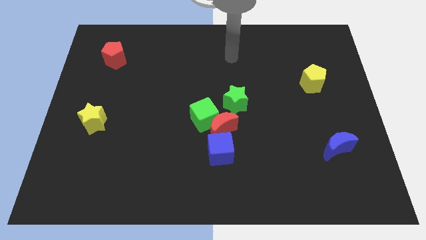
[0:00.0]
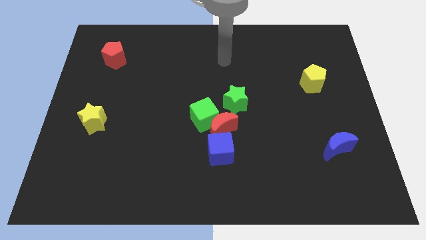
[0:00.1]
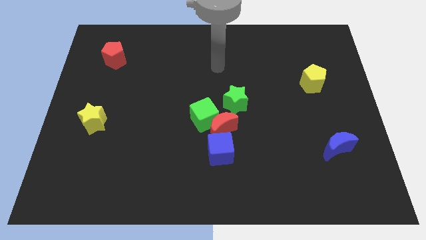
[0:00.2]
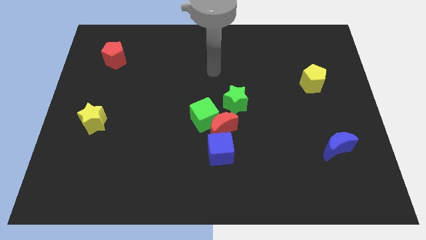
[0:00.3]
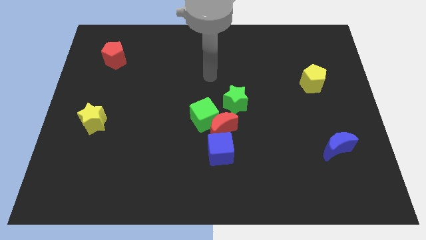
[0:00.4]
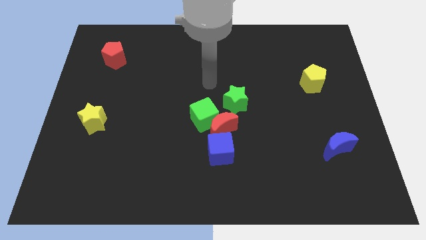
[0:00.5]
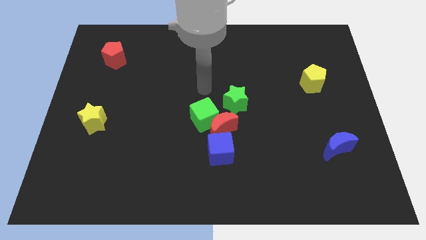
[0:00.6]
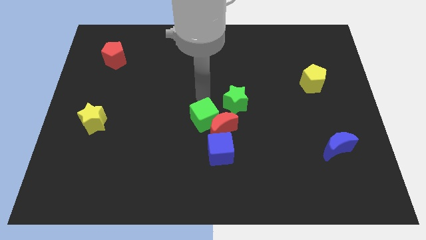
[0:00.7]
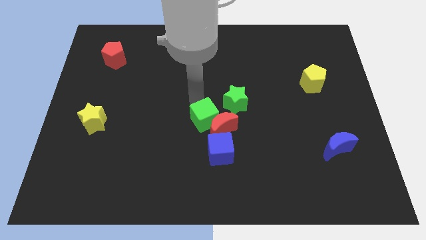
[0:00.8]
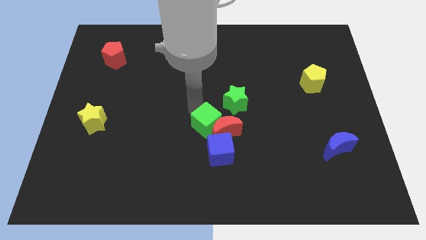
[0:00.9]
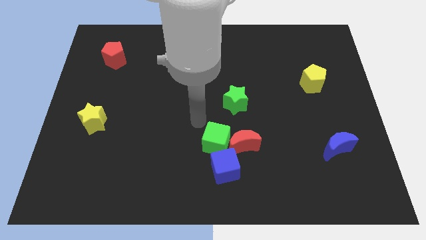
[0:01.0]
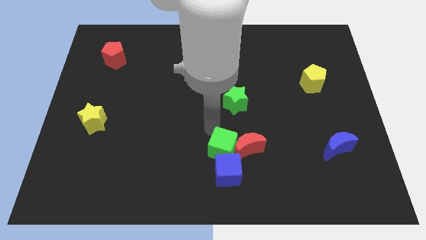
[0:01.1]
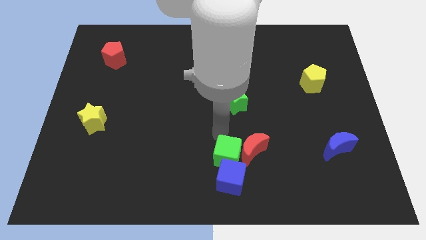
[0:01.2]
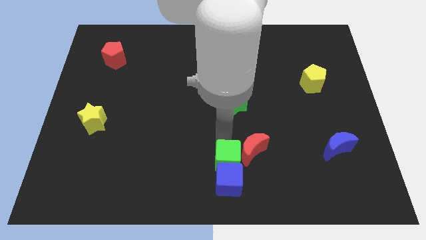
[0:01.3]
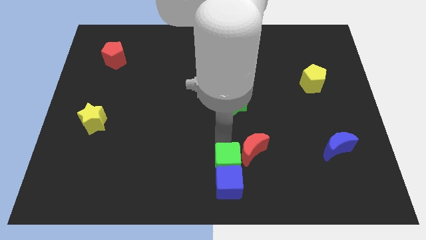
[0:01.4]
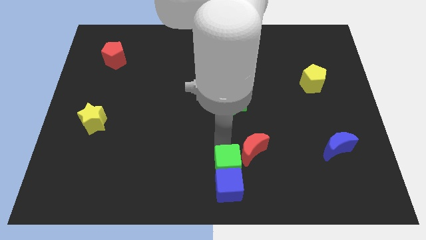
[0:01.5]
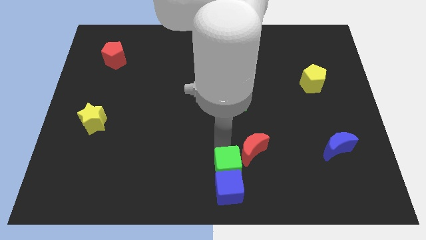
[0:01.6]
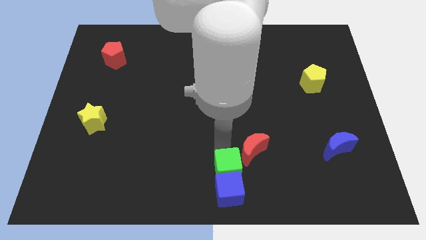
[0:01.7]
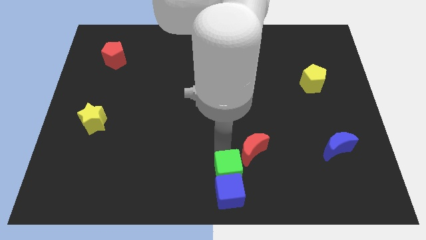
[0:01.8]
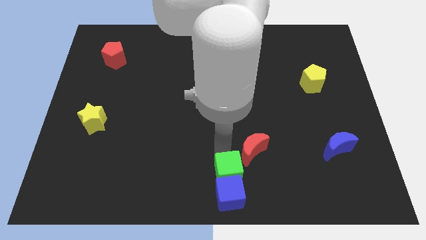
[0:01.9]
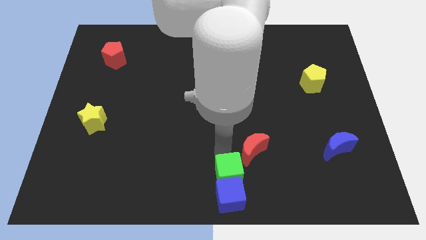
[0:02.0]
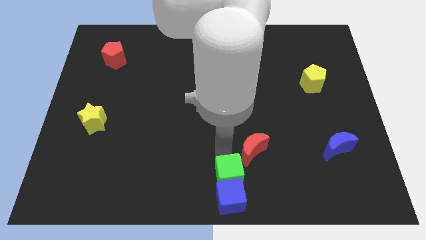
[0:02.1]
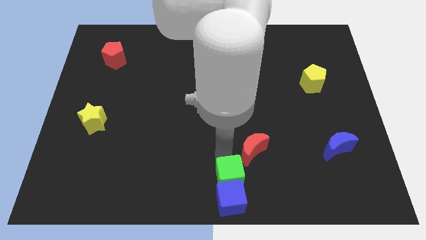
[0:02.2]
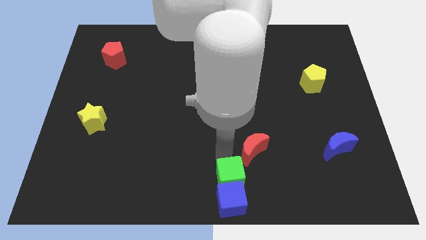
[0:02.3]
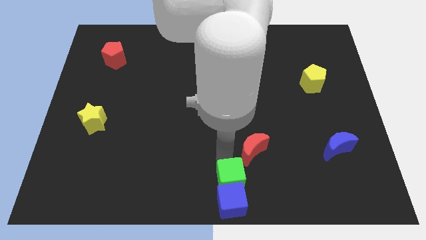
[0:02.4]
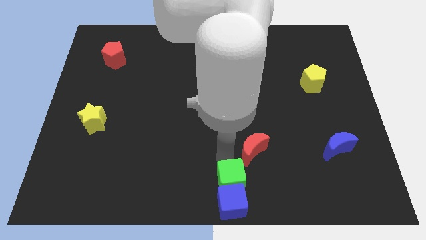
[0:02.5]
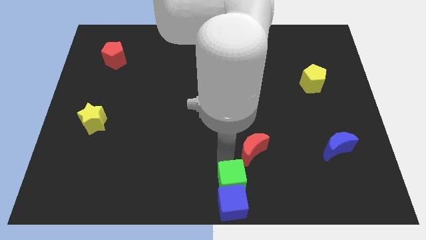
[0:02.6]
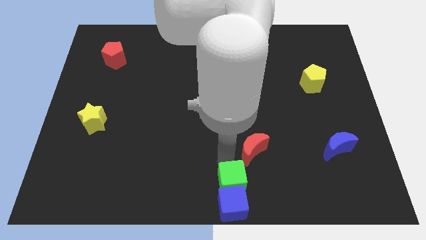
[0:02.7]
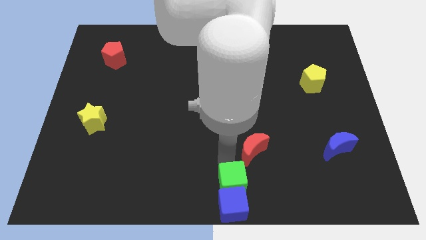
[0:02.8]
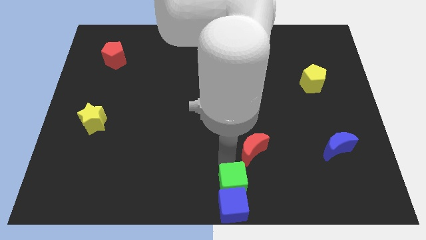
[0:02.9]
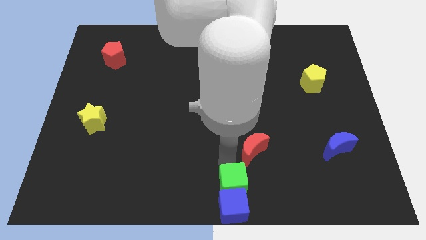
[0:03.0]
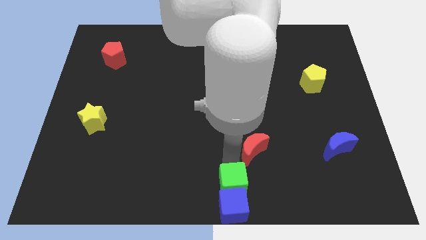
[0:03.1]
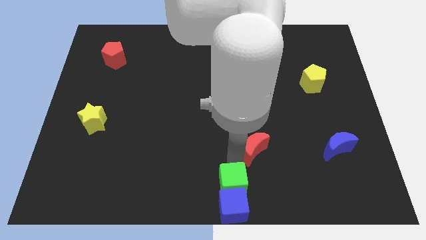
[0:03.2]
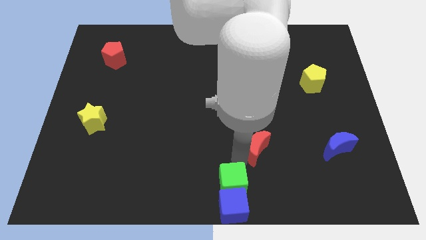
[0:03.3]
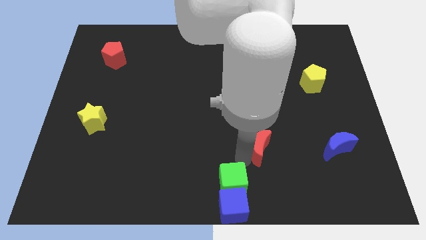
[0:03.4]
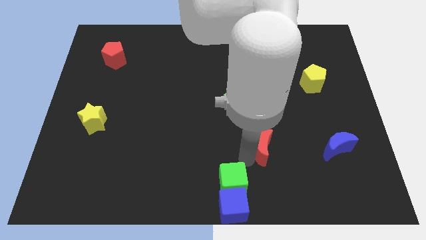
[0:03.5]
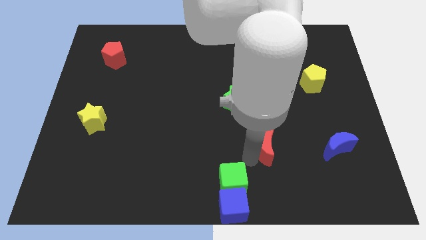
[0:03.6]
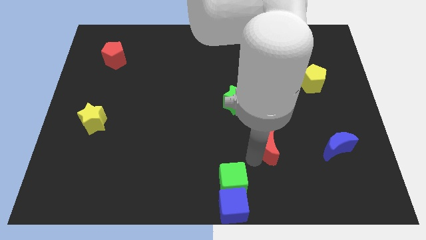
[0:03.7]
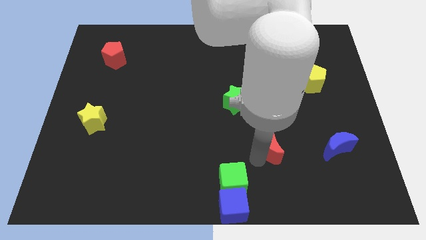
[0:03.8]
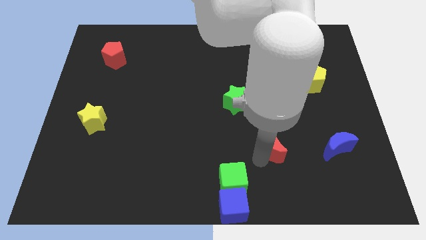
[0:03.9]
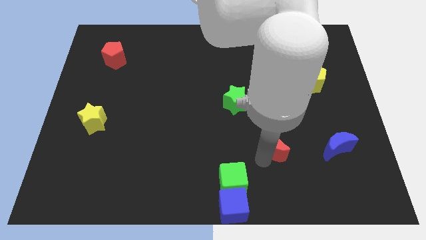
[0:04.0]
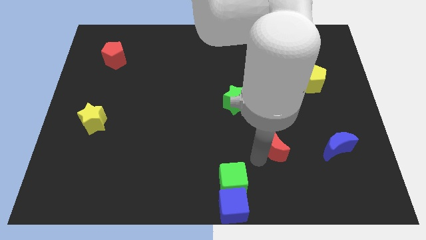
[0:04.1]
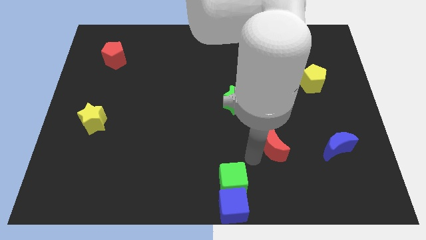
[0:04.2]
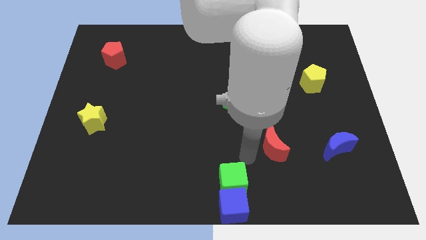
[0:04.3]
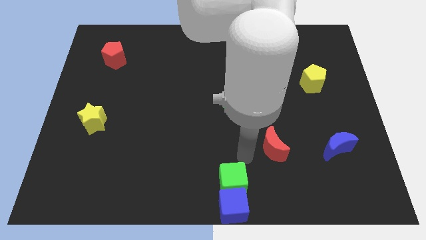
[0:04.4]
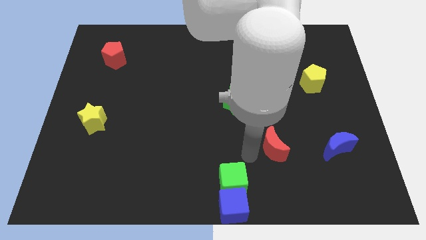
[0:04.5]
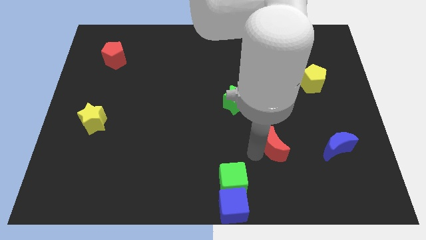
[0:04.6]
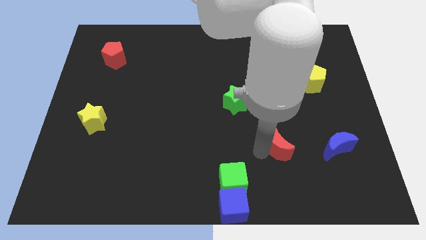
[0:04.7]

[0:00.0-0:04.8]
separate the red moon from the green cube, blue cube, and green star

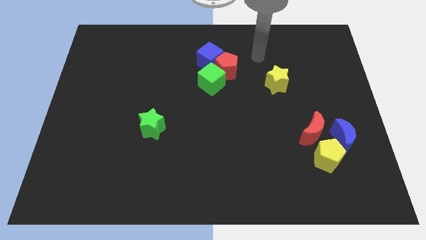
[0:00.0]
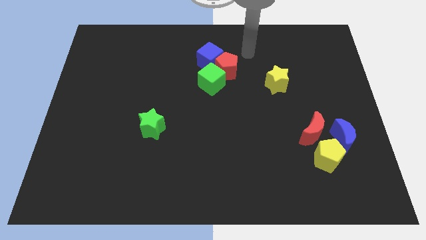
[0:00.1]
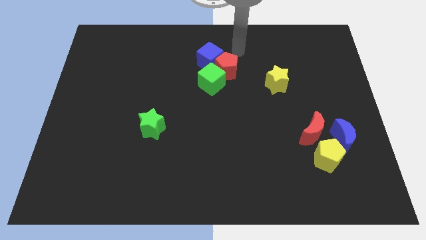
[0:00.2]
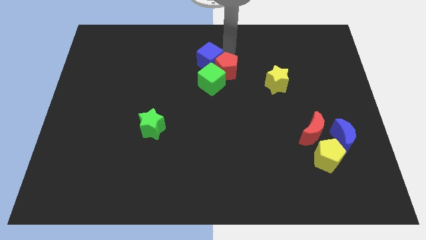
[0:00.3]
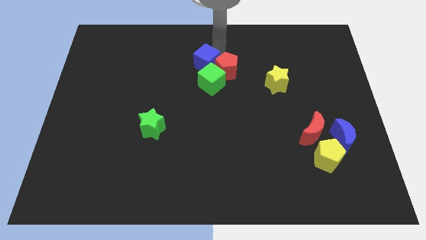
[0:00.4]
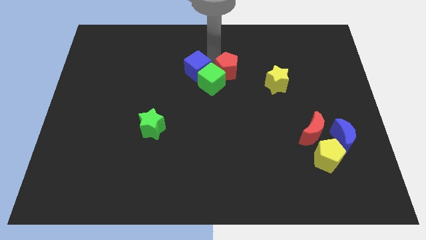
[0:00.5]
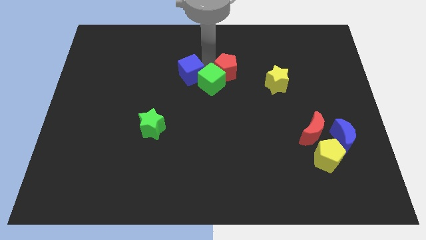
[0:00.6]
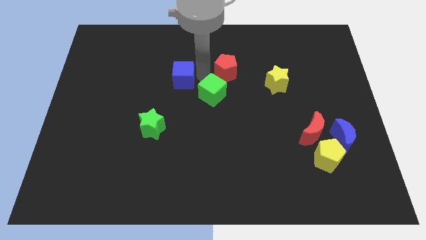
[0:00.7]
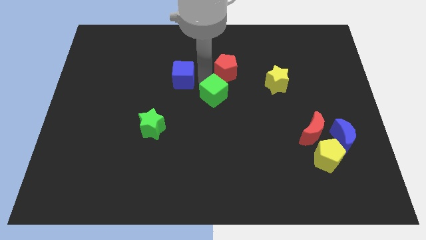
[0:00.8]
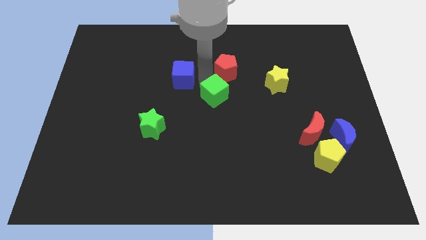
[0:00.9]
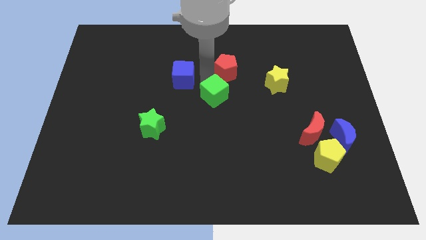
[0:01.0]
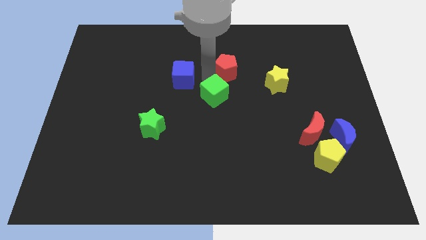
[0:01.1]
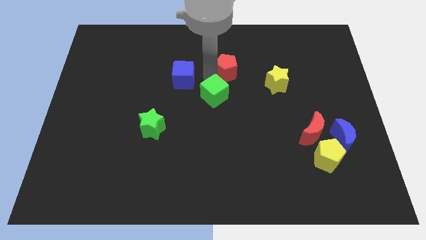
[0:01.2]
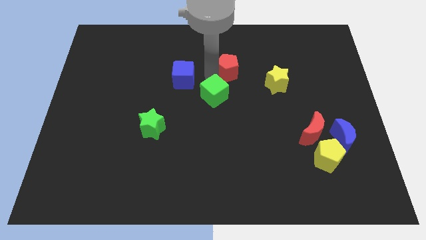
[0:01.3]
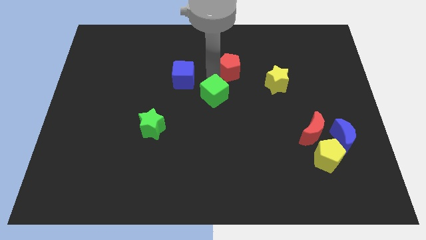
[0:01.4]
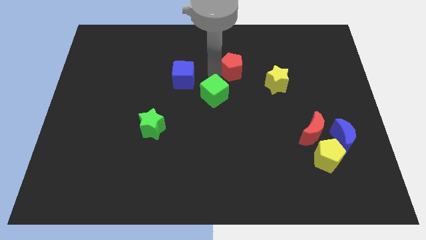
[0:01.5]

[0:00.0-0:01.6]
pull the red pentagon apart from the blue cube and green cube

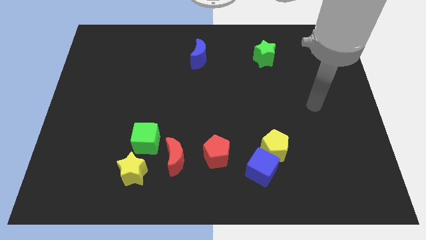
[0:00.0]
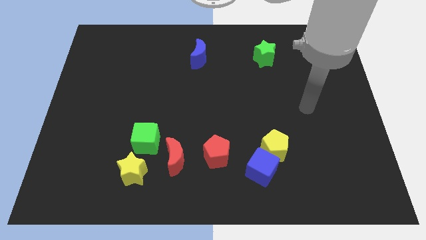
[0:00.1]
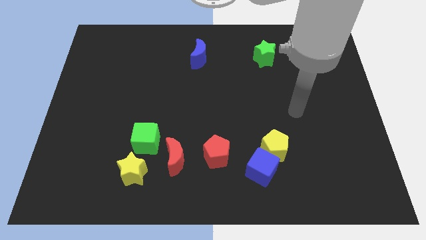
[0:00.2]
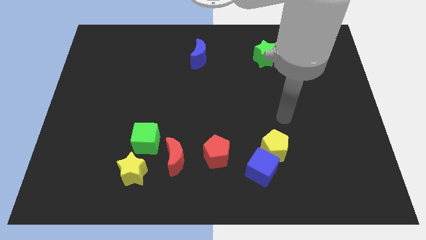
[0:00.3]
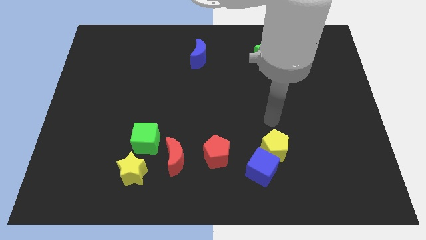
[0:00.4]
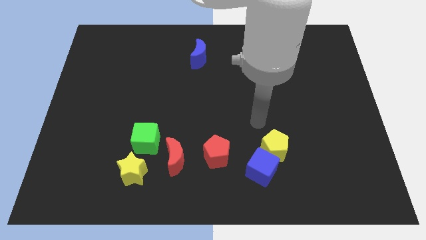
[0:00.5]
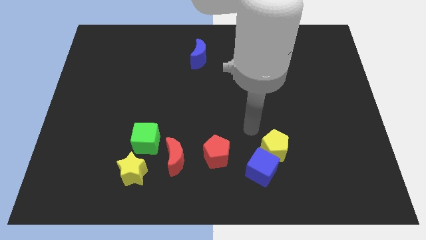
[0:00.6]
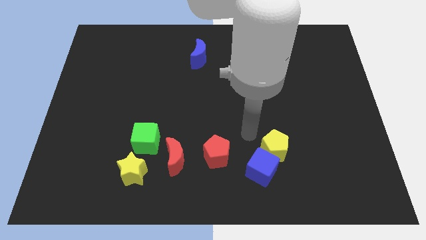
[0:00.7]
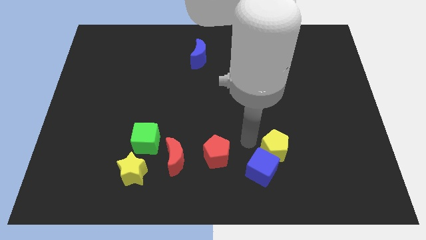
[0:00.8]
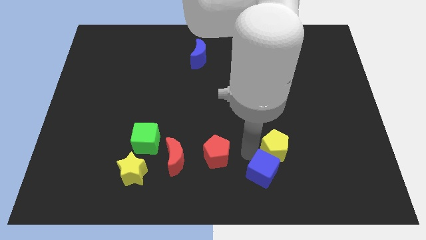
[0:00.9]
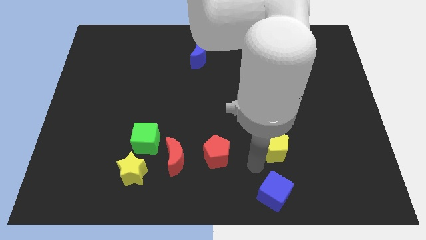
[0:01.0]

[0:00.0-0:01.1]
move the yellow pentagon away from the blue cube

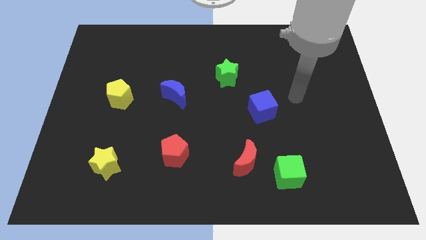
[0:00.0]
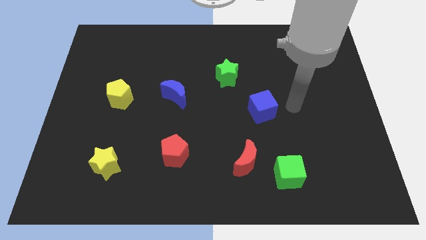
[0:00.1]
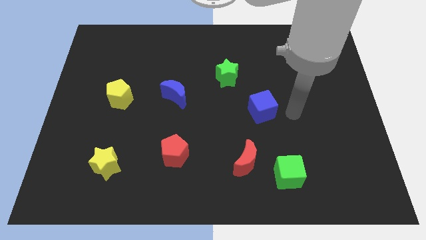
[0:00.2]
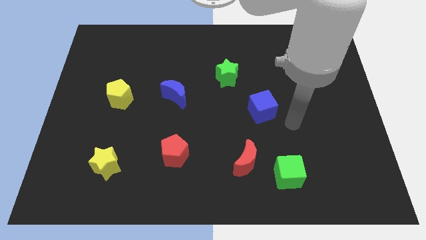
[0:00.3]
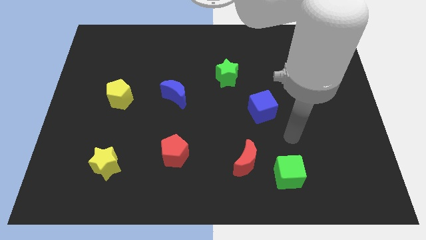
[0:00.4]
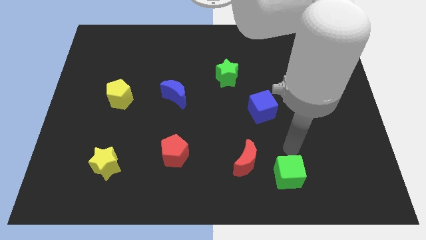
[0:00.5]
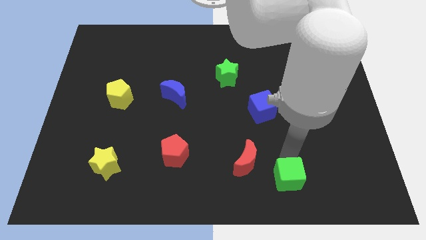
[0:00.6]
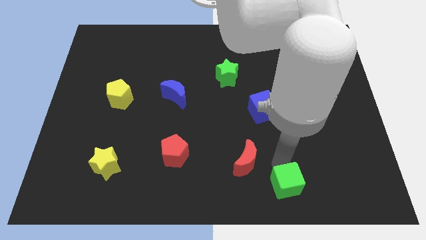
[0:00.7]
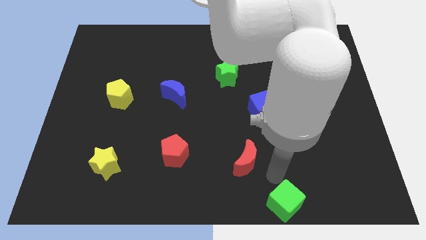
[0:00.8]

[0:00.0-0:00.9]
move the red moon away from the green cube

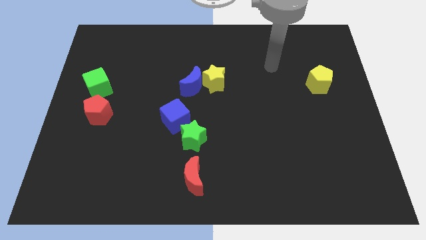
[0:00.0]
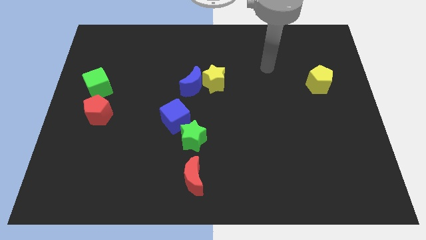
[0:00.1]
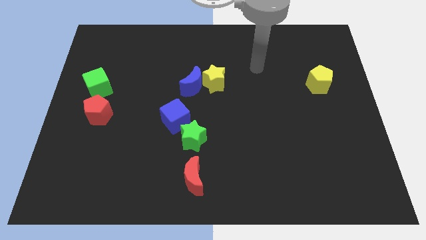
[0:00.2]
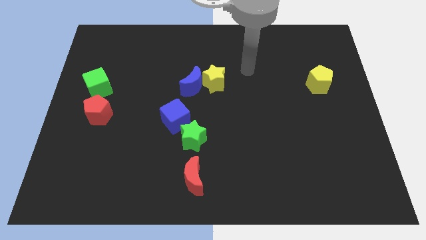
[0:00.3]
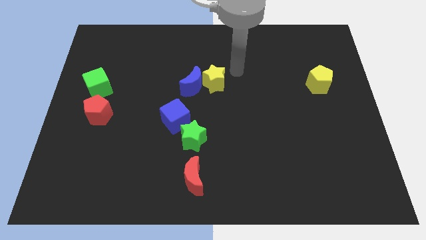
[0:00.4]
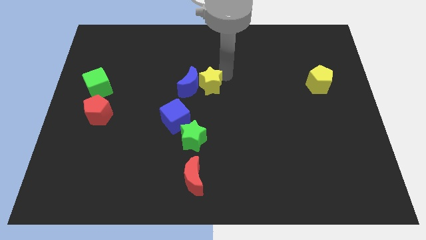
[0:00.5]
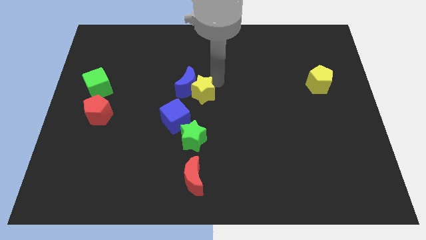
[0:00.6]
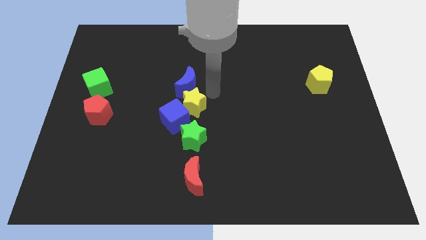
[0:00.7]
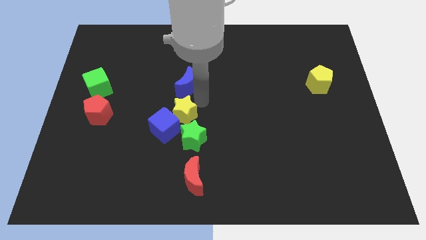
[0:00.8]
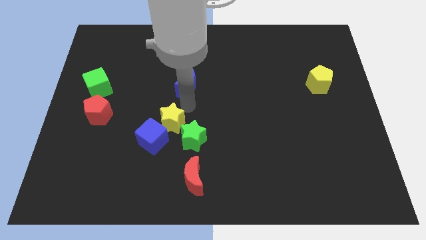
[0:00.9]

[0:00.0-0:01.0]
move the blue moon away from the yellow star
